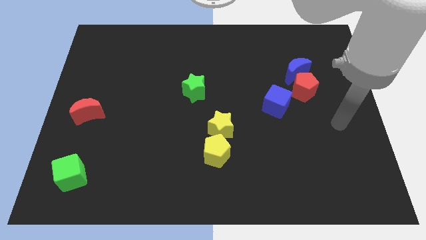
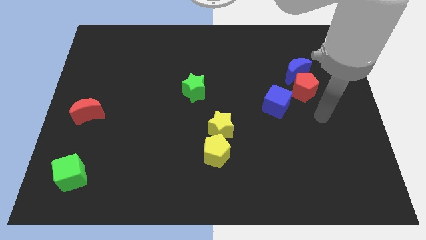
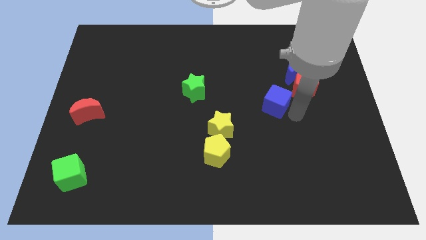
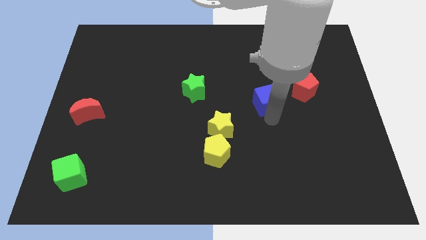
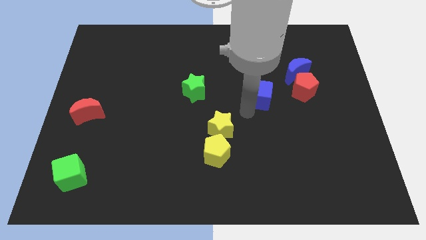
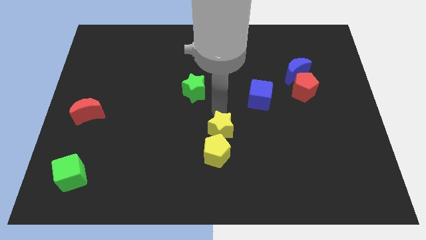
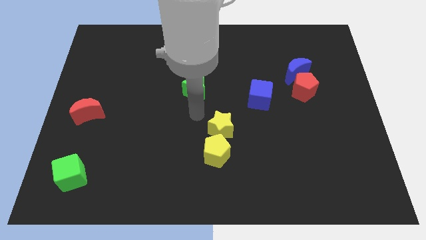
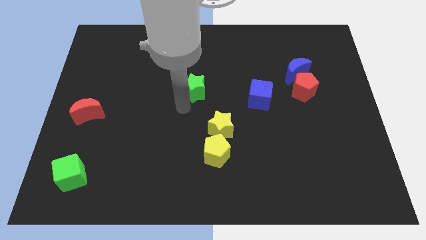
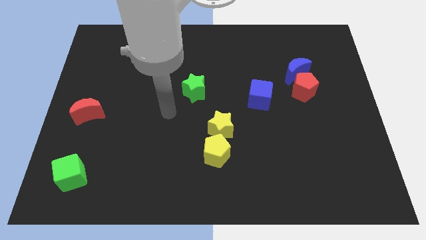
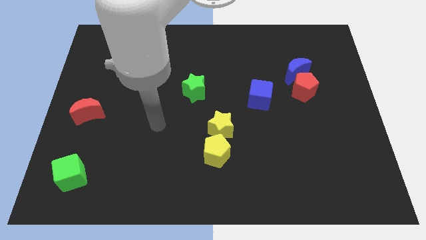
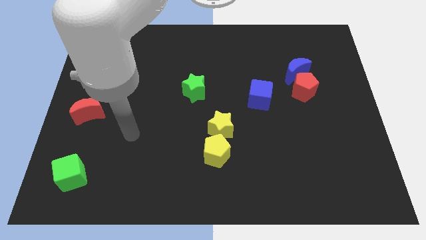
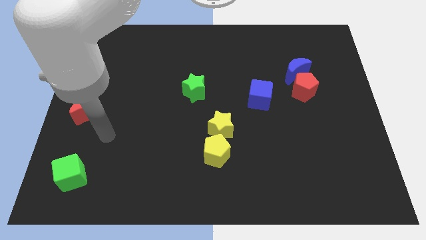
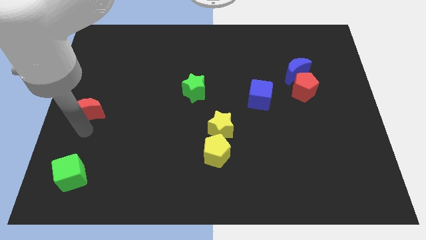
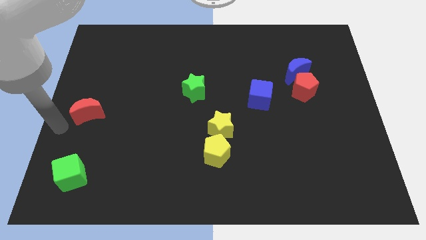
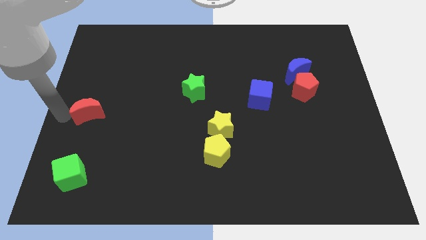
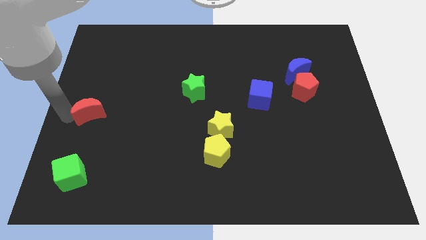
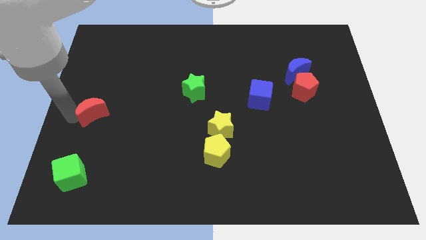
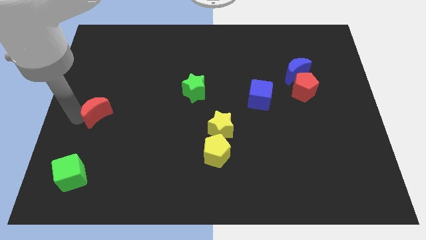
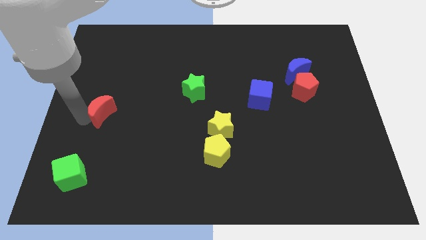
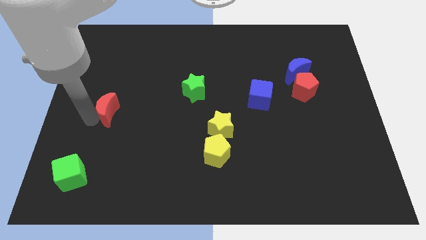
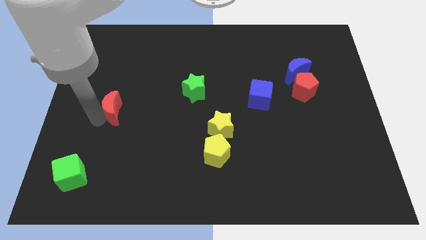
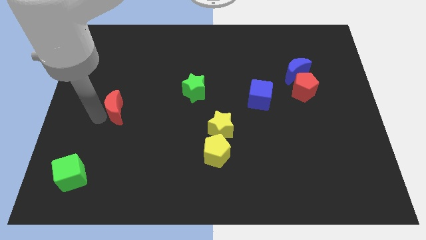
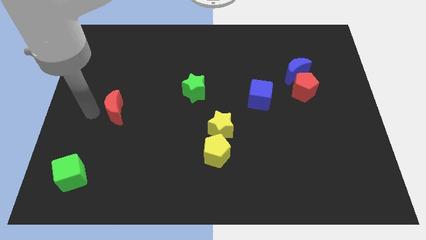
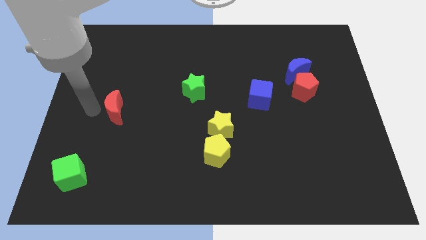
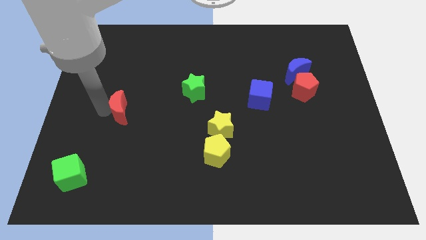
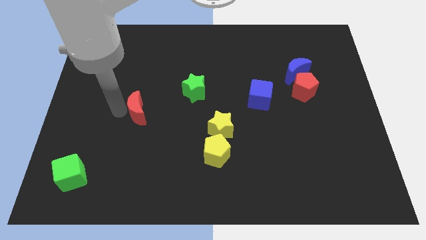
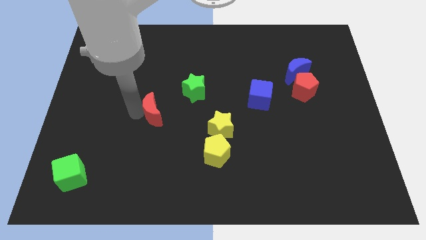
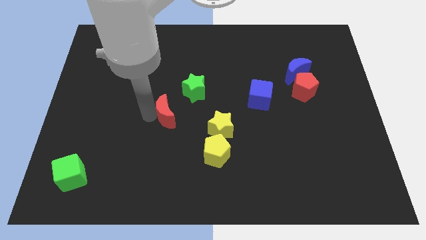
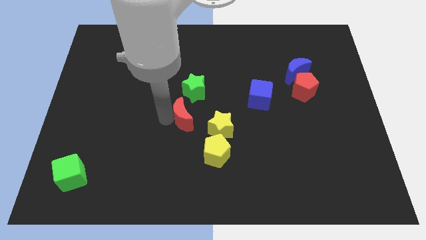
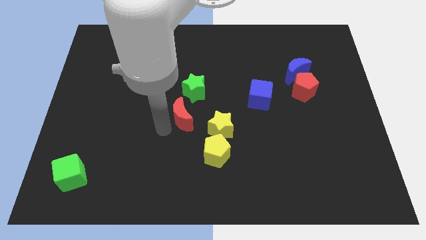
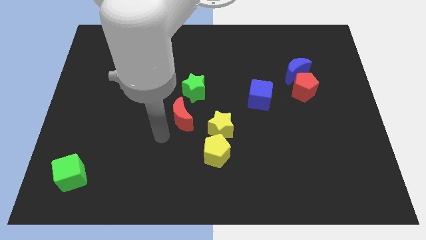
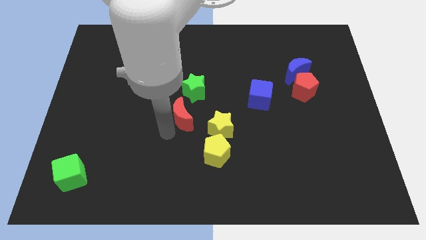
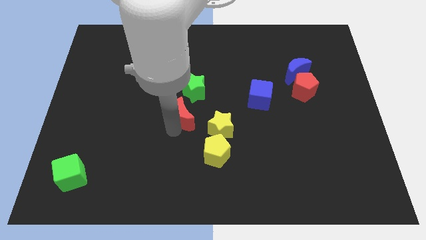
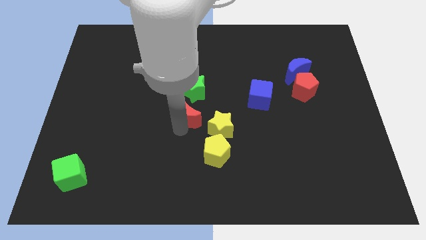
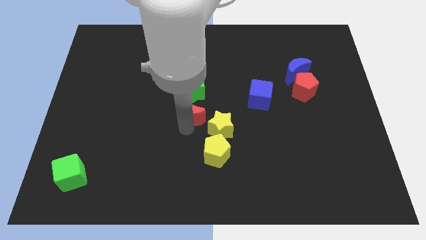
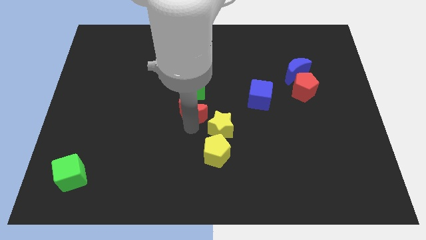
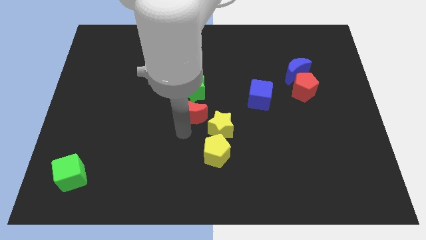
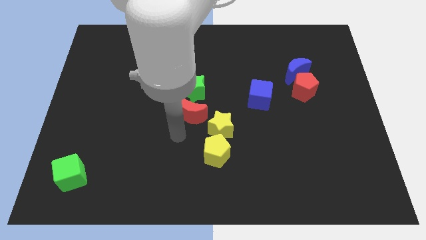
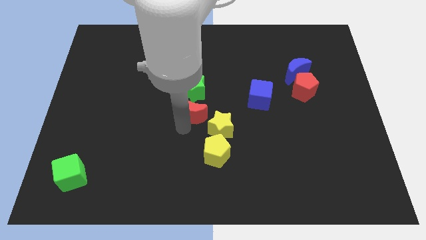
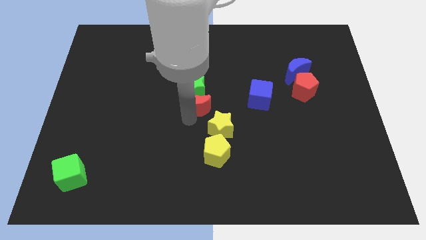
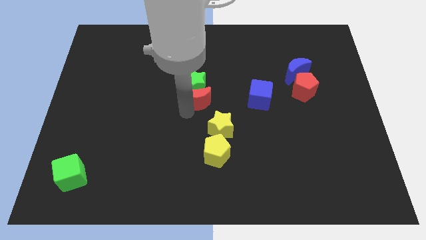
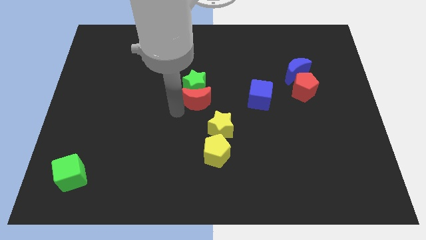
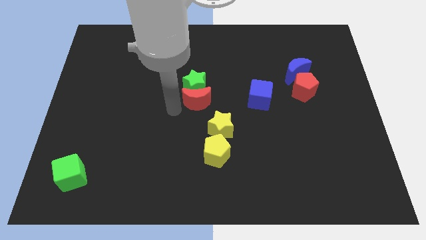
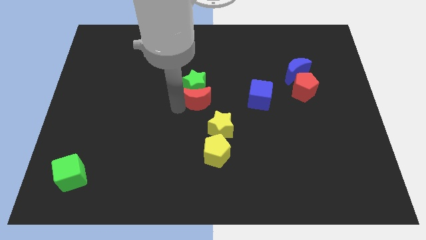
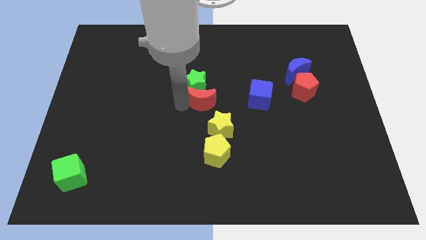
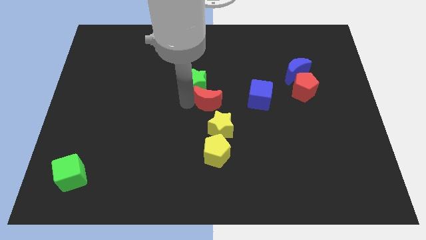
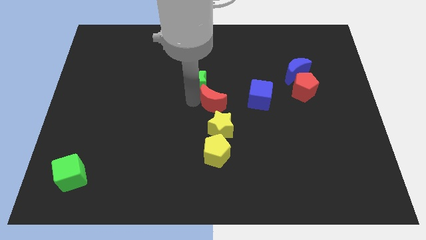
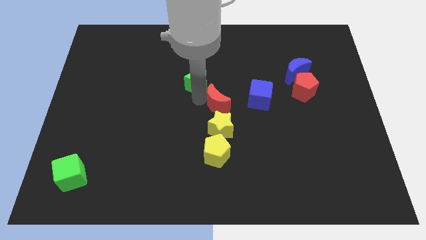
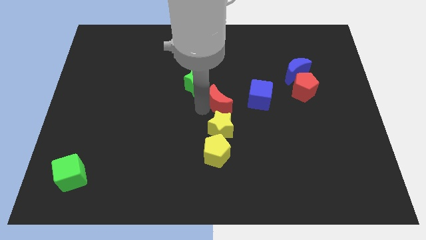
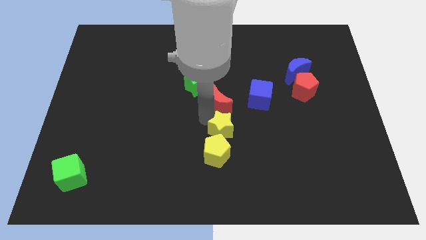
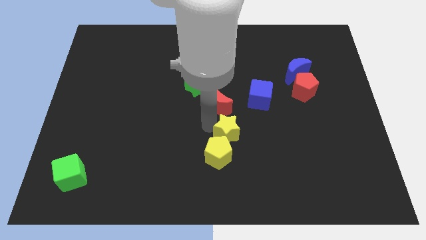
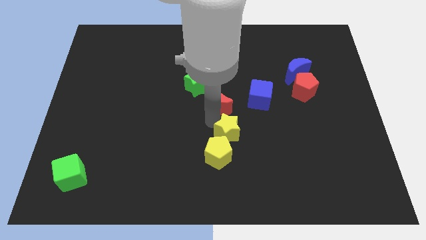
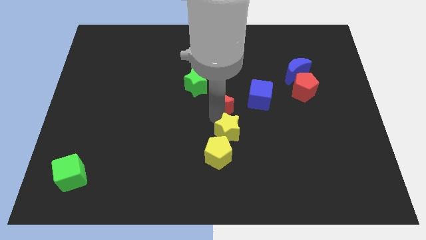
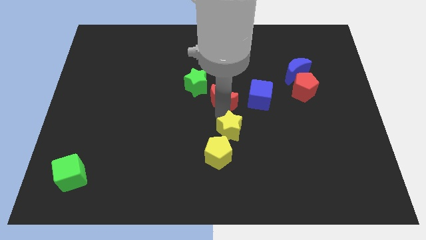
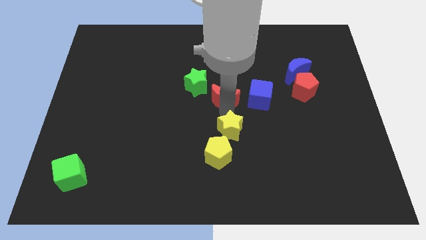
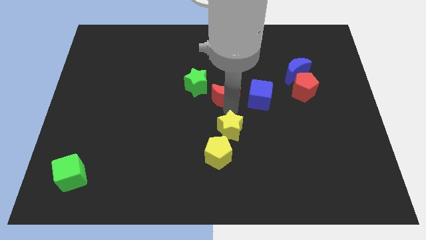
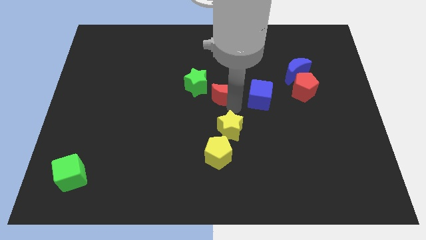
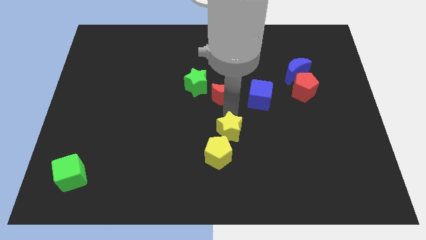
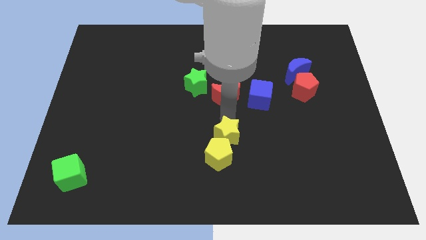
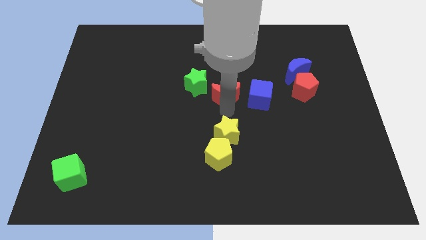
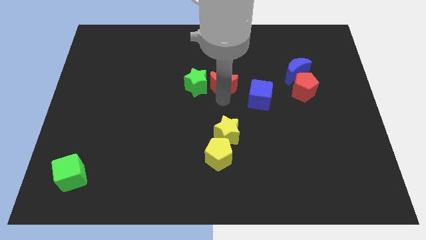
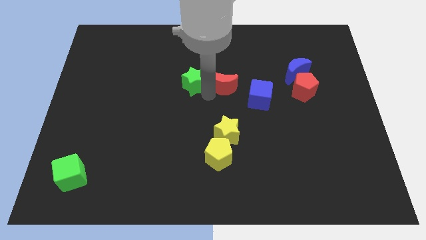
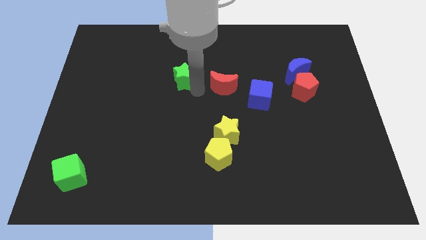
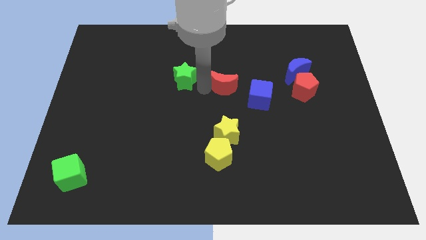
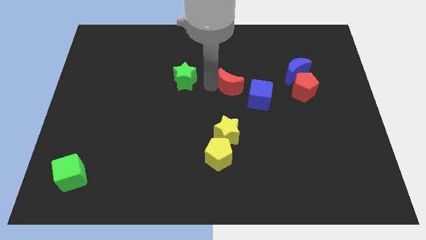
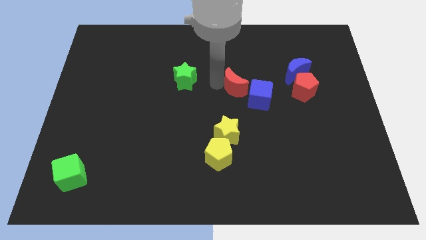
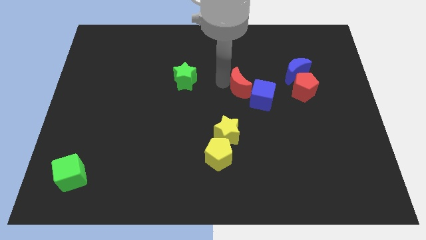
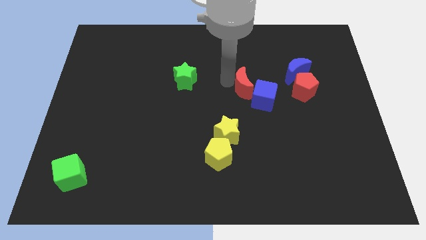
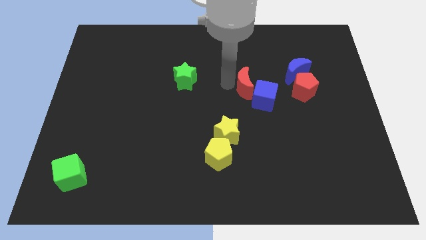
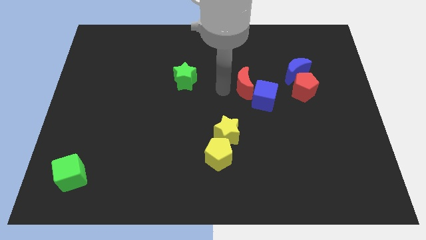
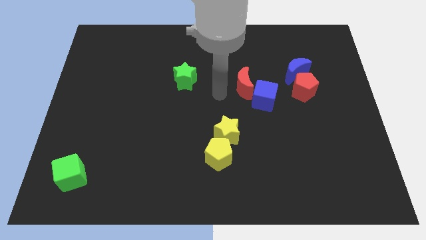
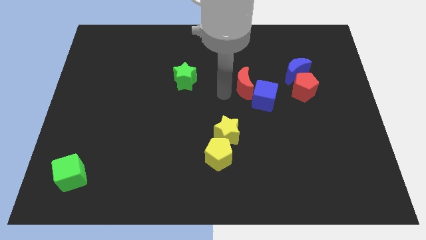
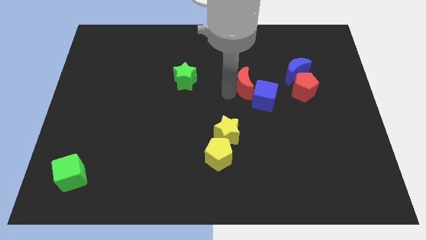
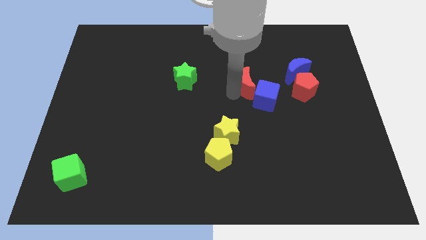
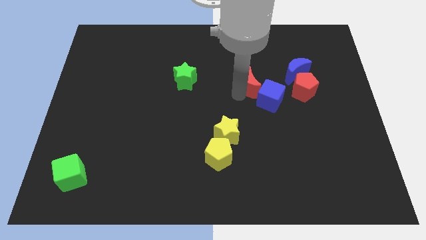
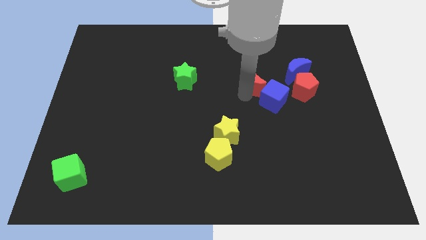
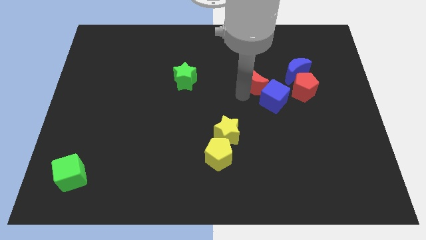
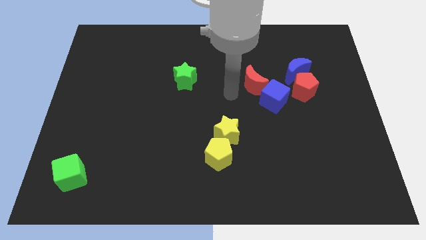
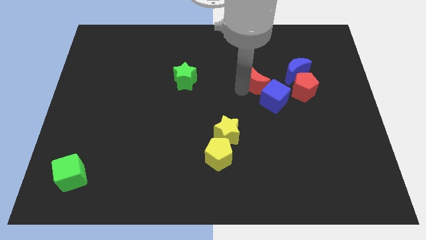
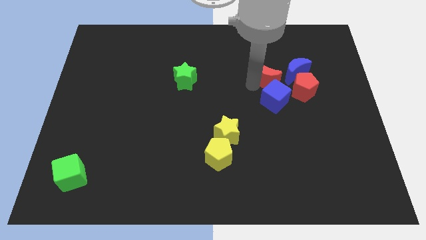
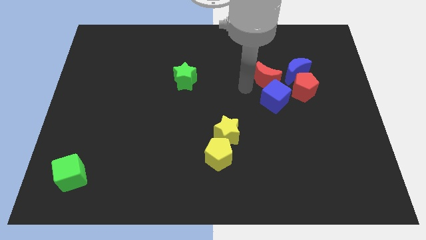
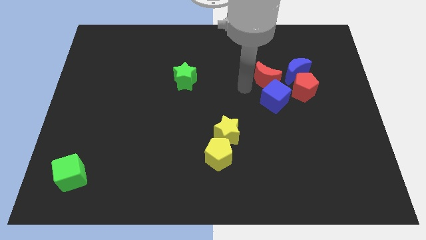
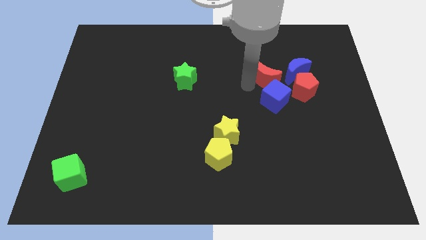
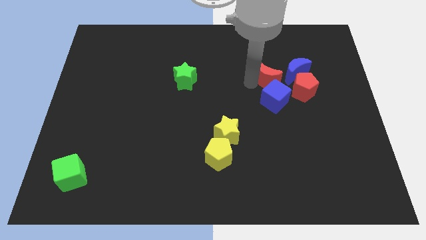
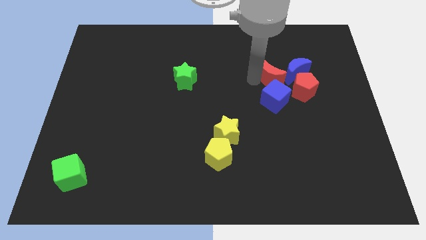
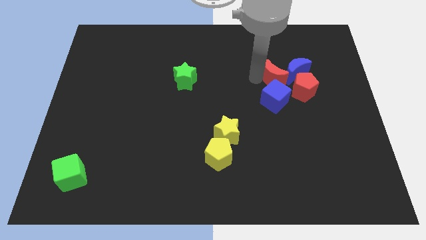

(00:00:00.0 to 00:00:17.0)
slide the red moon next to the blue moon
